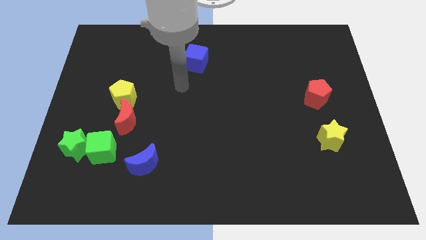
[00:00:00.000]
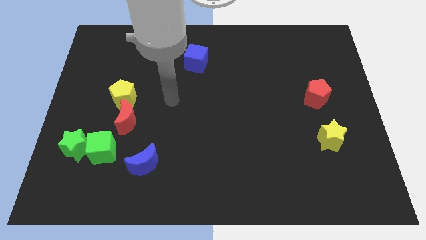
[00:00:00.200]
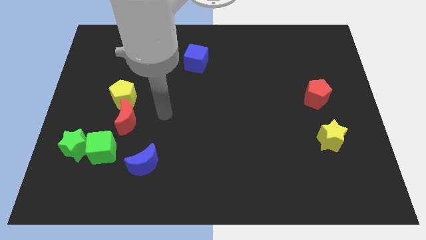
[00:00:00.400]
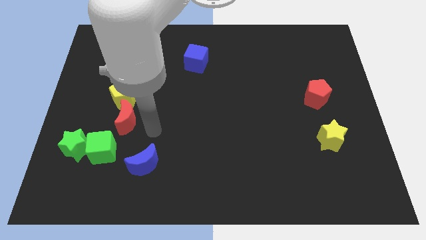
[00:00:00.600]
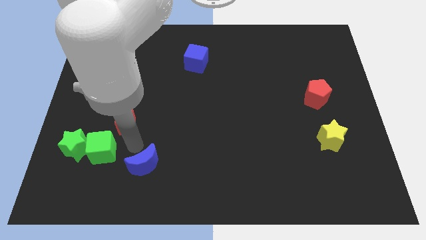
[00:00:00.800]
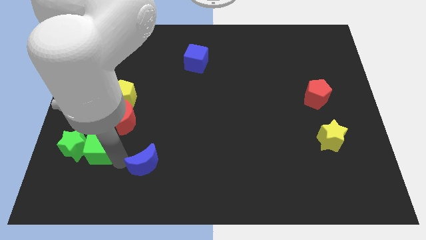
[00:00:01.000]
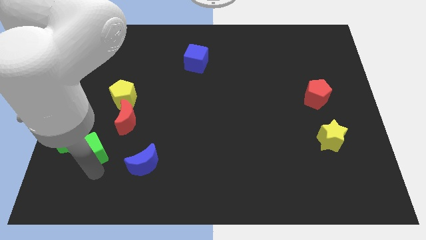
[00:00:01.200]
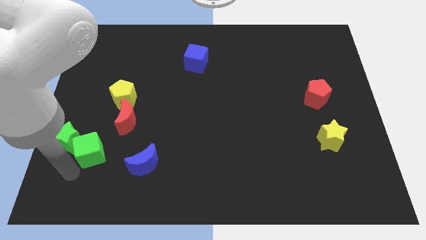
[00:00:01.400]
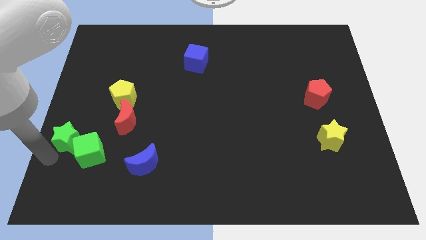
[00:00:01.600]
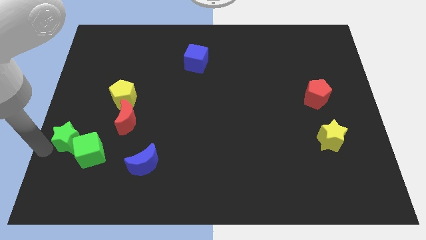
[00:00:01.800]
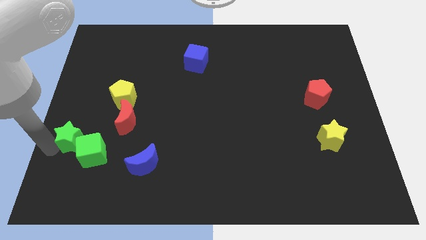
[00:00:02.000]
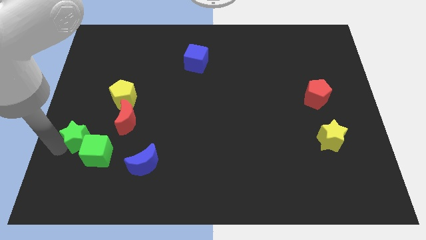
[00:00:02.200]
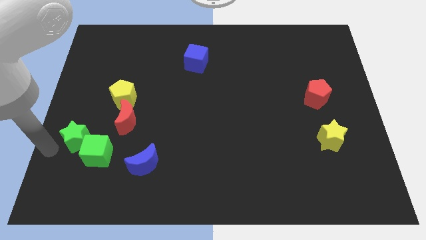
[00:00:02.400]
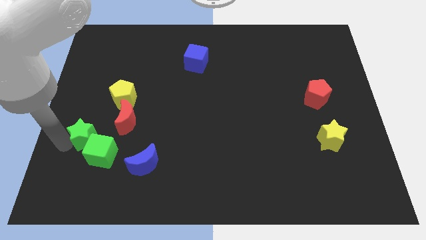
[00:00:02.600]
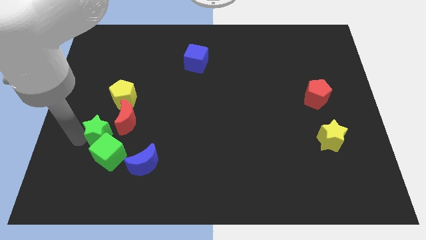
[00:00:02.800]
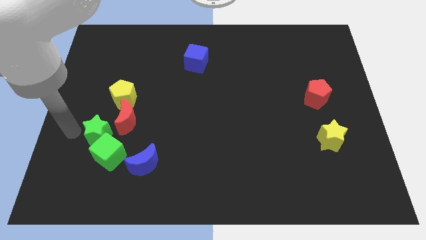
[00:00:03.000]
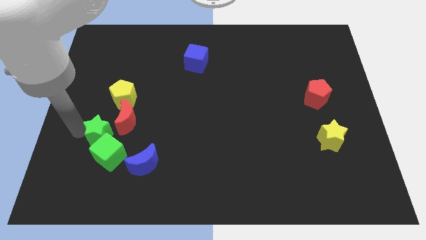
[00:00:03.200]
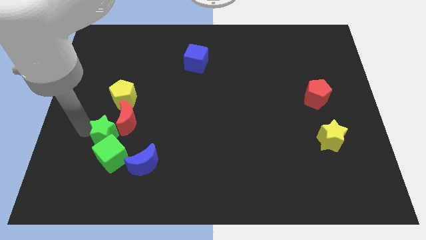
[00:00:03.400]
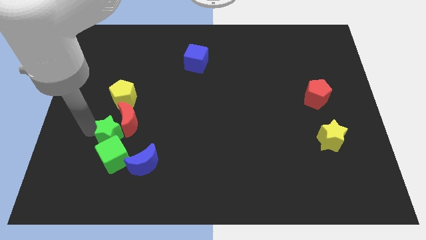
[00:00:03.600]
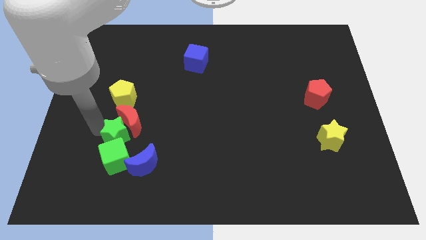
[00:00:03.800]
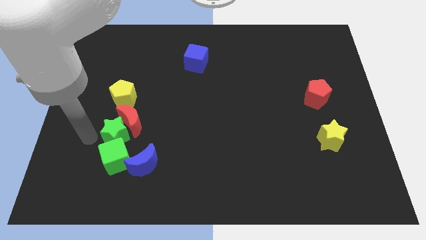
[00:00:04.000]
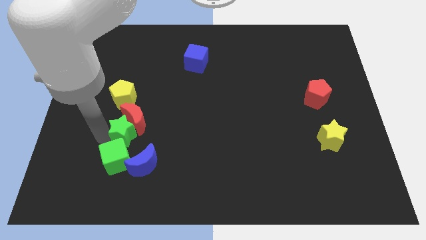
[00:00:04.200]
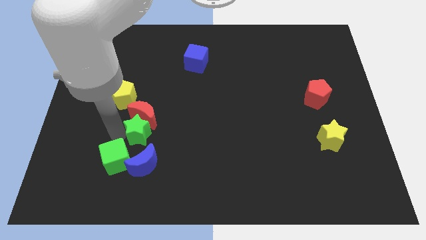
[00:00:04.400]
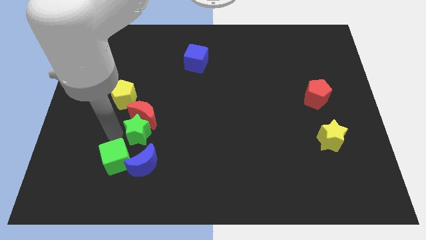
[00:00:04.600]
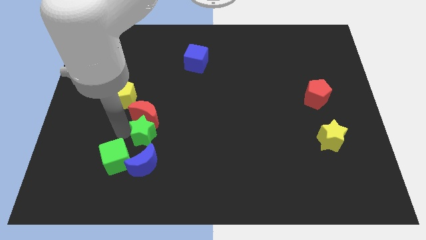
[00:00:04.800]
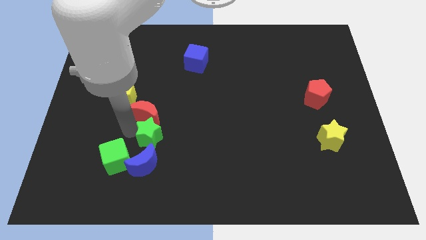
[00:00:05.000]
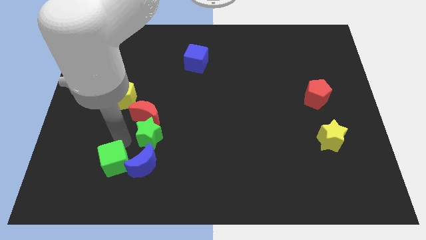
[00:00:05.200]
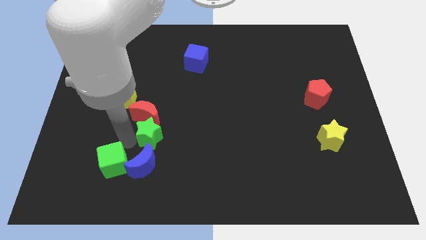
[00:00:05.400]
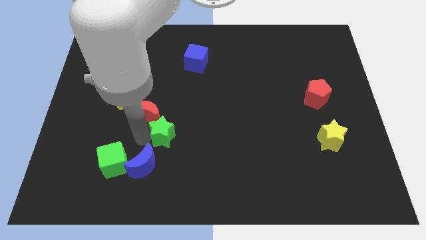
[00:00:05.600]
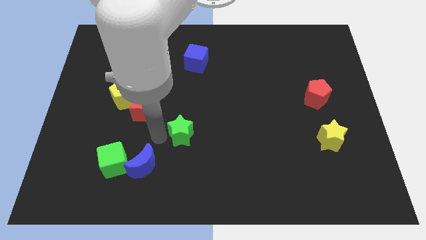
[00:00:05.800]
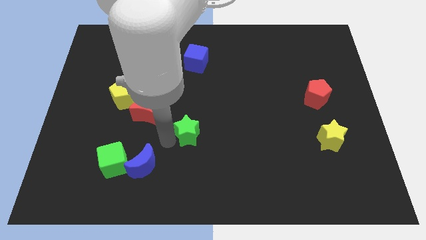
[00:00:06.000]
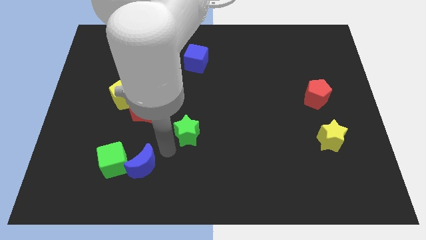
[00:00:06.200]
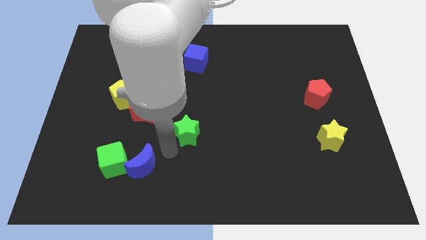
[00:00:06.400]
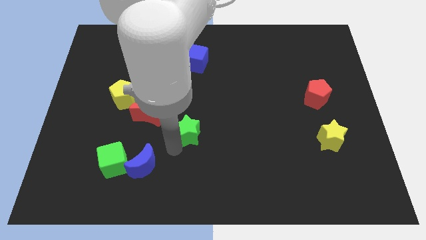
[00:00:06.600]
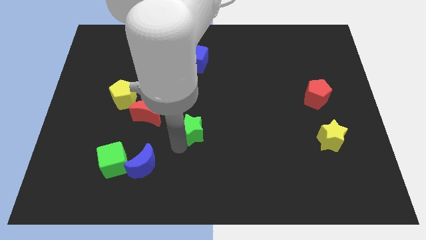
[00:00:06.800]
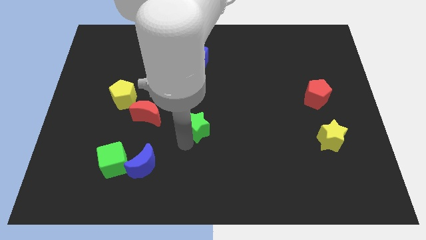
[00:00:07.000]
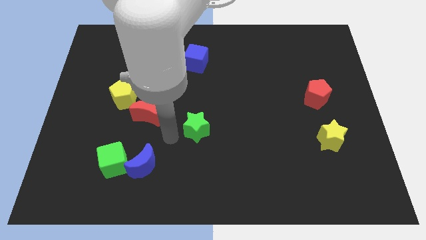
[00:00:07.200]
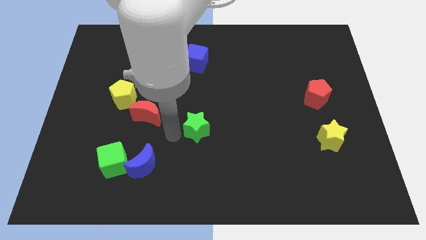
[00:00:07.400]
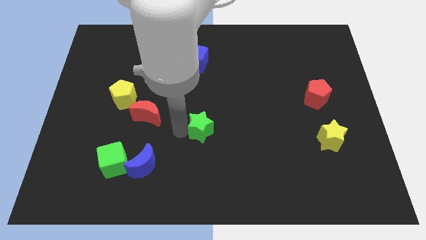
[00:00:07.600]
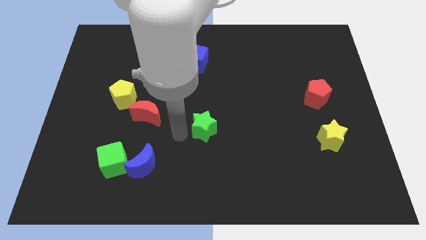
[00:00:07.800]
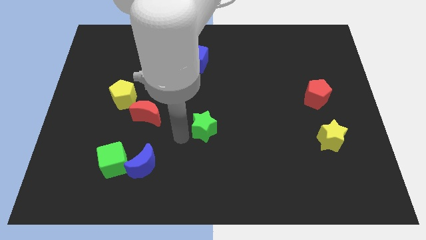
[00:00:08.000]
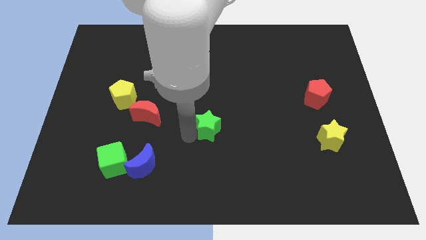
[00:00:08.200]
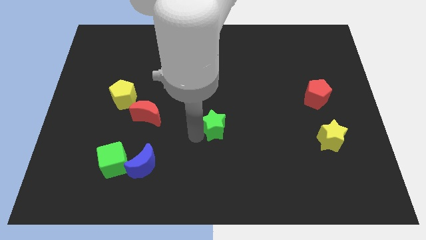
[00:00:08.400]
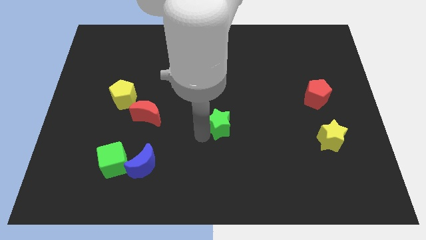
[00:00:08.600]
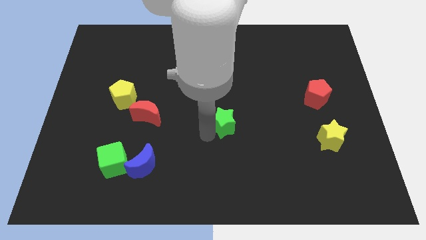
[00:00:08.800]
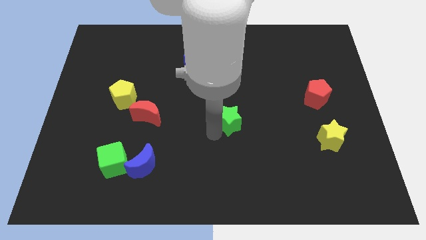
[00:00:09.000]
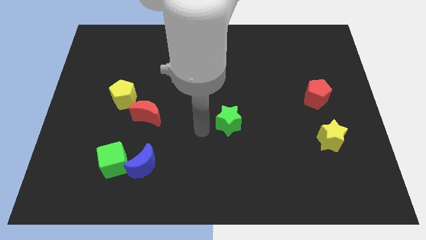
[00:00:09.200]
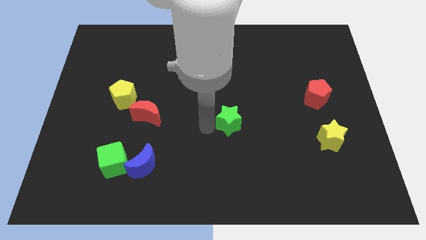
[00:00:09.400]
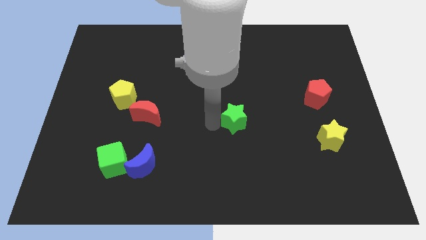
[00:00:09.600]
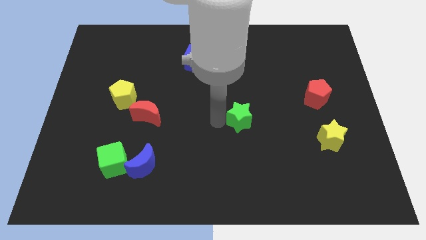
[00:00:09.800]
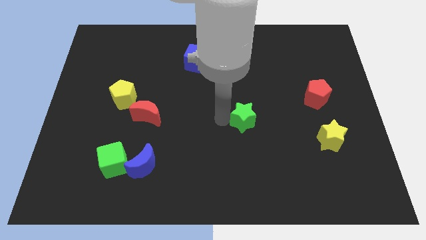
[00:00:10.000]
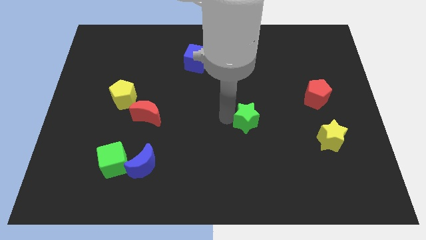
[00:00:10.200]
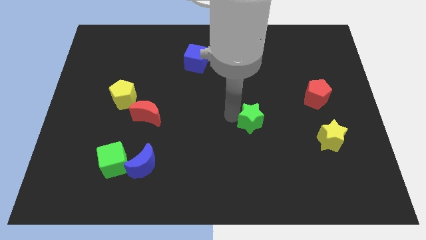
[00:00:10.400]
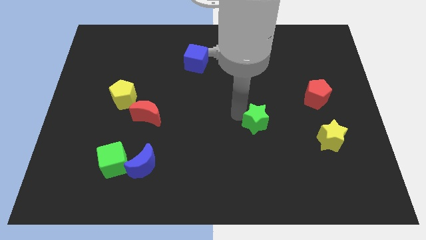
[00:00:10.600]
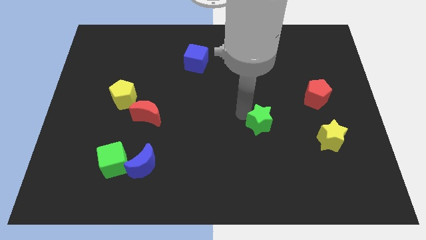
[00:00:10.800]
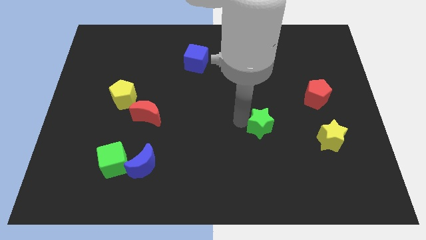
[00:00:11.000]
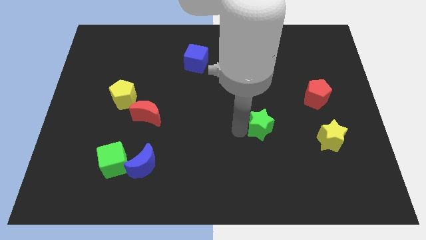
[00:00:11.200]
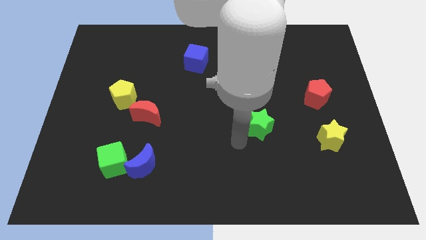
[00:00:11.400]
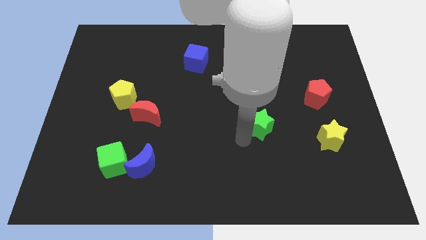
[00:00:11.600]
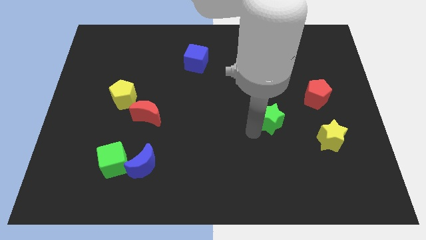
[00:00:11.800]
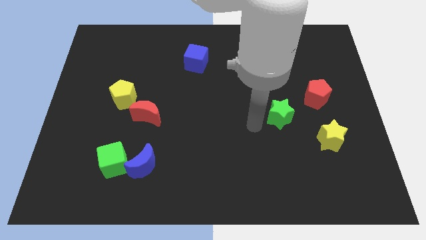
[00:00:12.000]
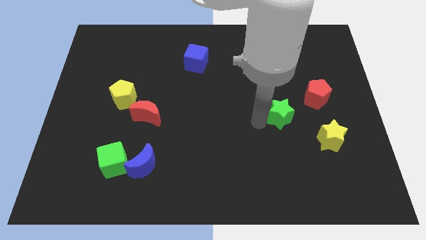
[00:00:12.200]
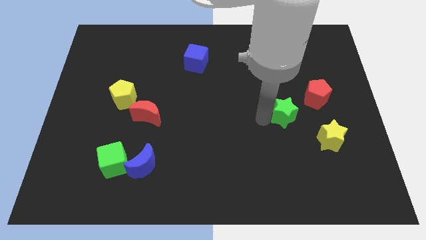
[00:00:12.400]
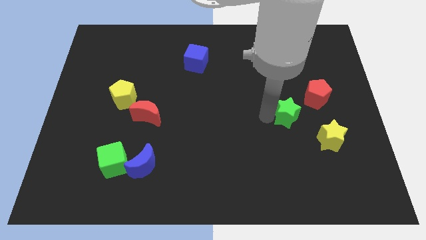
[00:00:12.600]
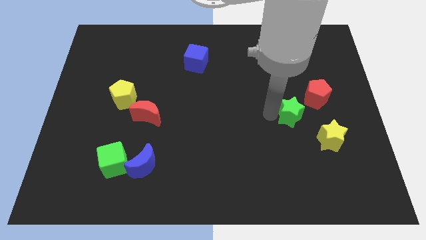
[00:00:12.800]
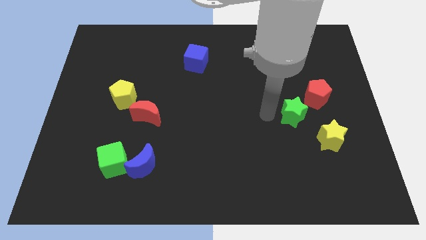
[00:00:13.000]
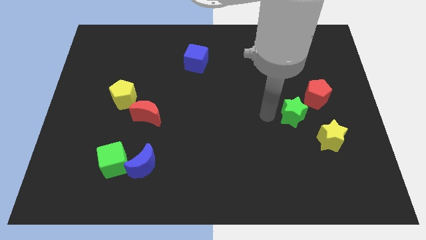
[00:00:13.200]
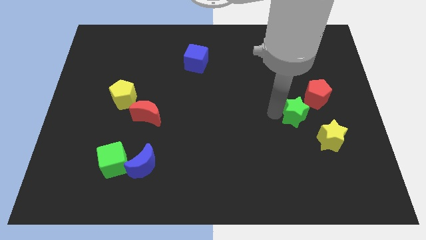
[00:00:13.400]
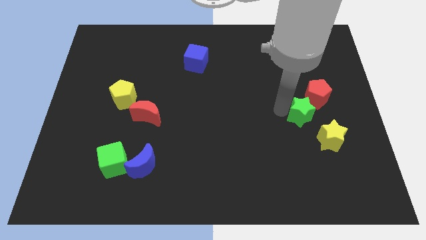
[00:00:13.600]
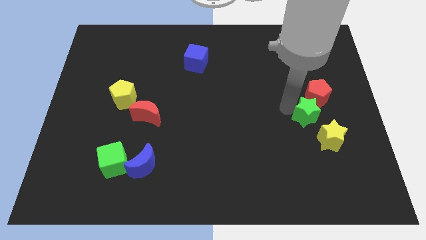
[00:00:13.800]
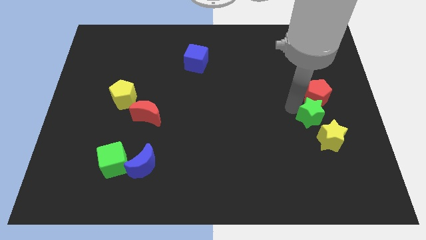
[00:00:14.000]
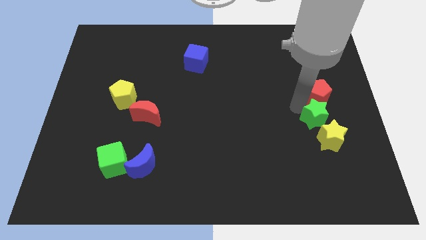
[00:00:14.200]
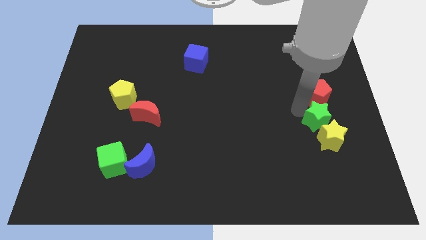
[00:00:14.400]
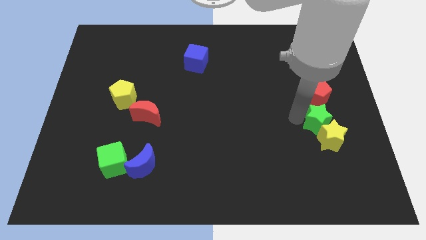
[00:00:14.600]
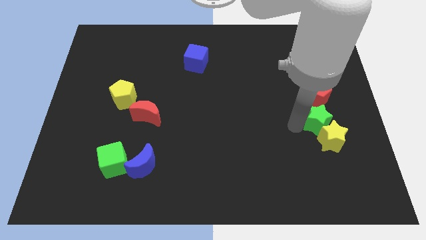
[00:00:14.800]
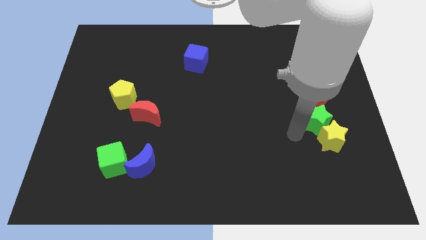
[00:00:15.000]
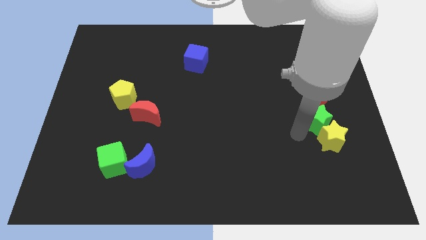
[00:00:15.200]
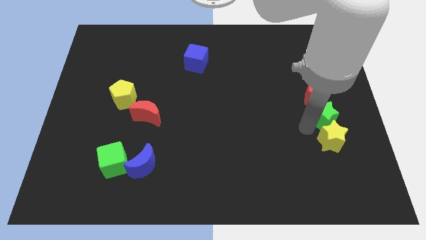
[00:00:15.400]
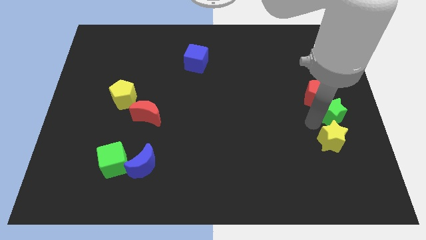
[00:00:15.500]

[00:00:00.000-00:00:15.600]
slide the green star to the center right
